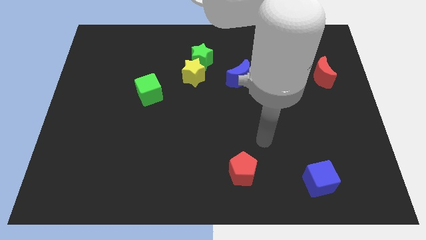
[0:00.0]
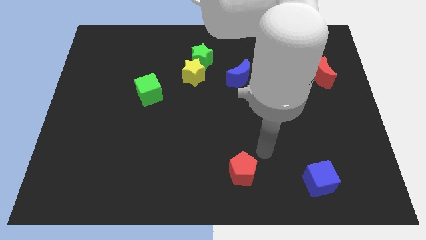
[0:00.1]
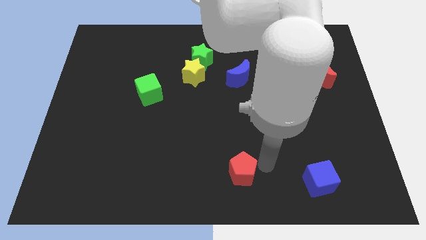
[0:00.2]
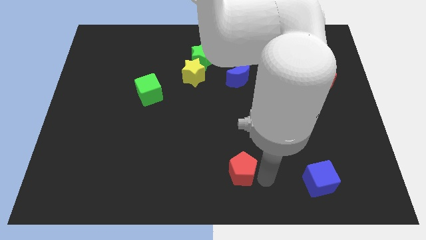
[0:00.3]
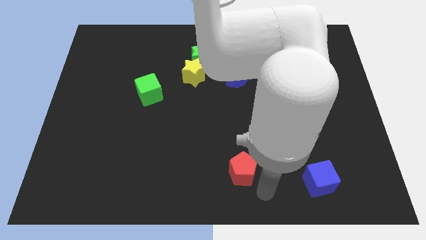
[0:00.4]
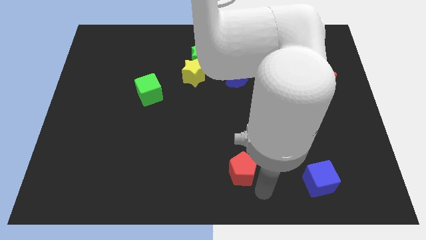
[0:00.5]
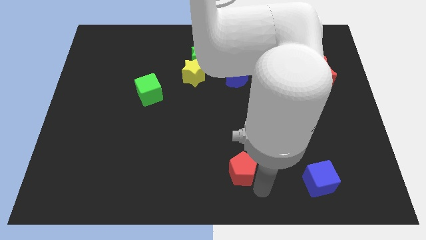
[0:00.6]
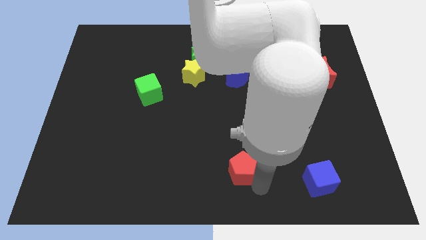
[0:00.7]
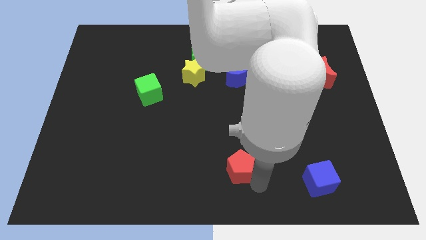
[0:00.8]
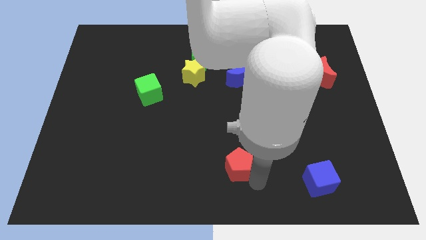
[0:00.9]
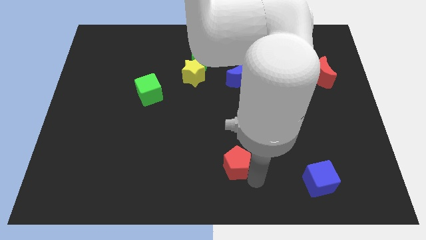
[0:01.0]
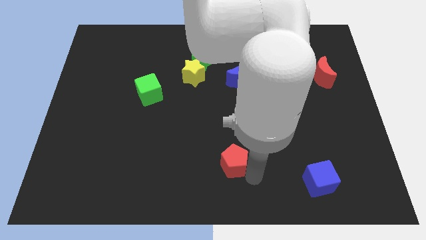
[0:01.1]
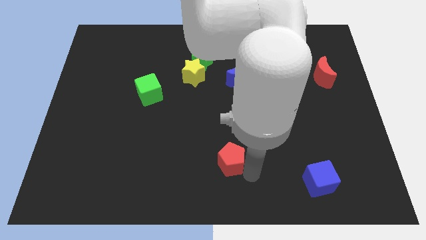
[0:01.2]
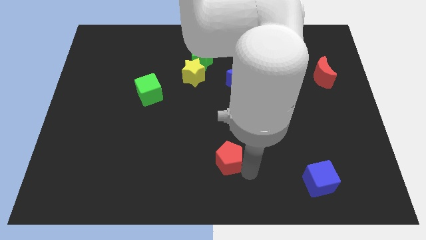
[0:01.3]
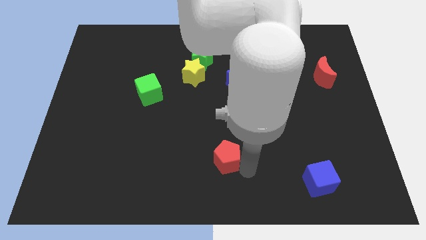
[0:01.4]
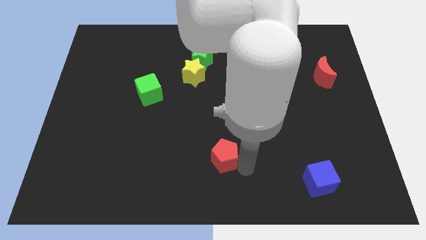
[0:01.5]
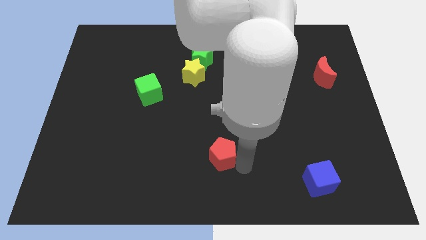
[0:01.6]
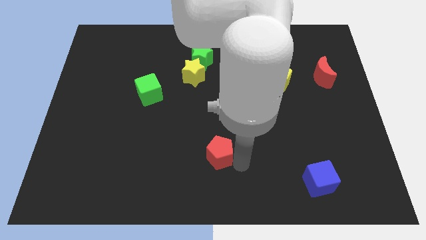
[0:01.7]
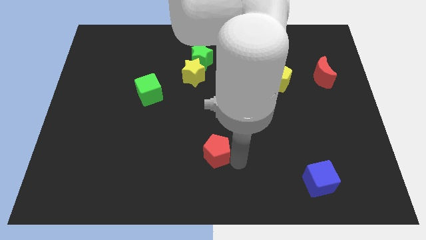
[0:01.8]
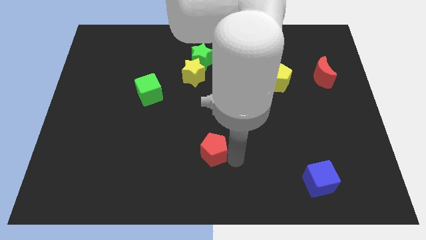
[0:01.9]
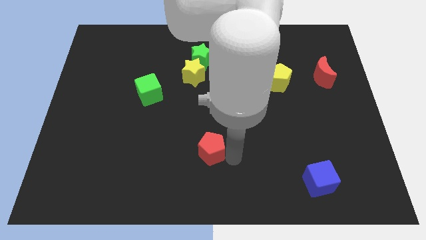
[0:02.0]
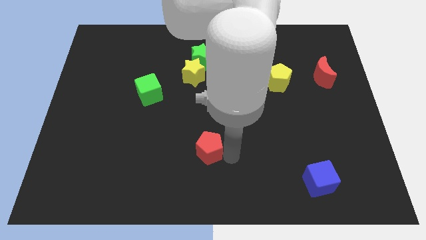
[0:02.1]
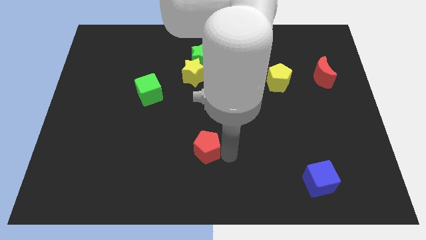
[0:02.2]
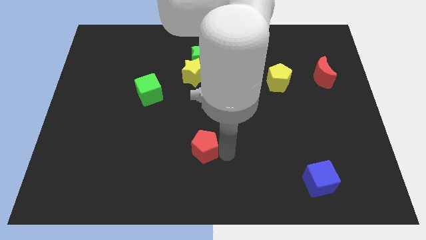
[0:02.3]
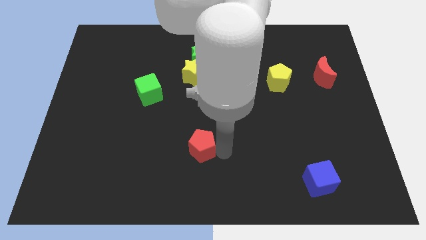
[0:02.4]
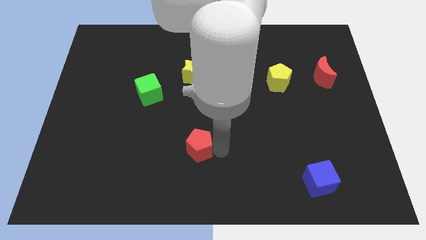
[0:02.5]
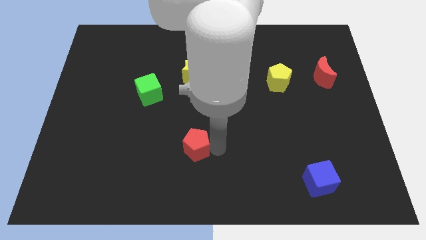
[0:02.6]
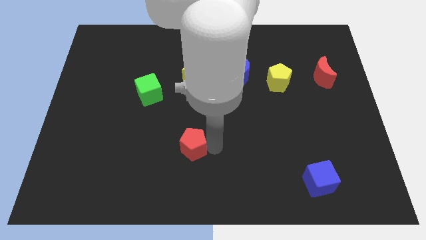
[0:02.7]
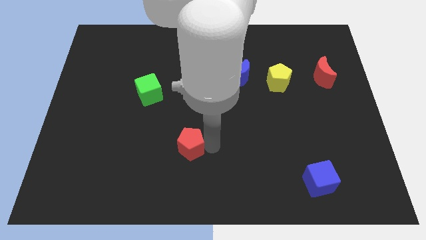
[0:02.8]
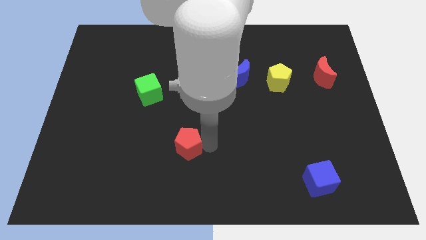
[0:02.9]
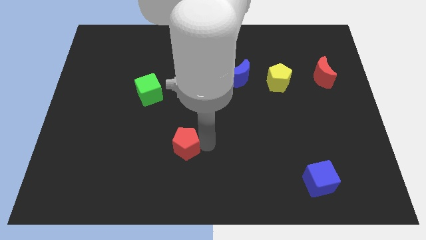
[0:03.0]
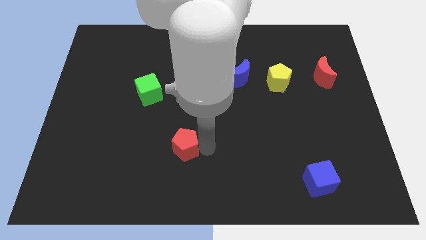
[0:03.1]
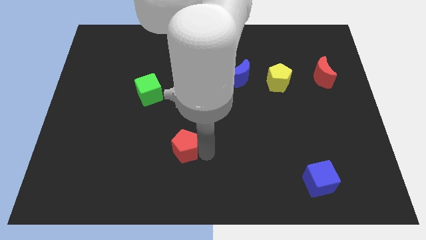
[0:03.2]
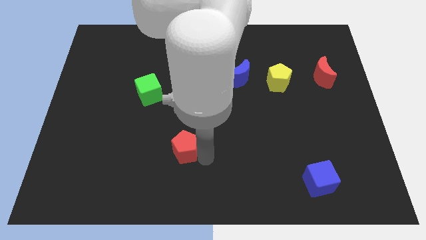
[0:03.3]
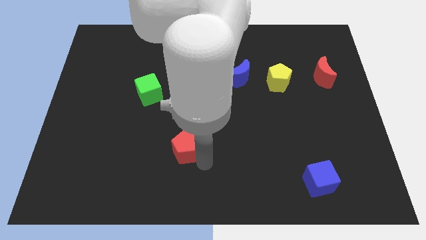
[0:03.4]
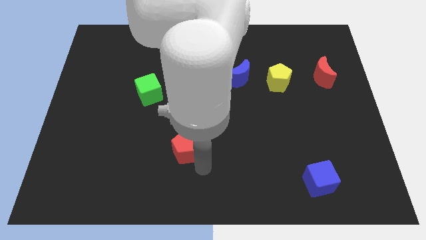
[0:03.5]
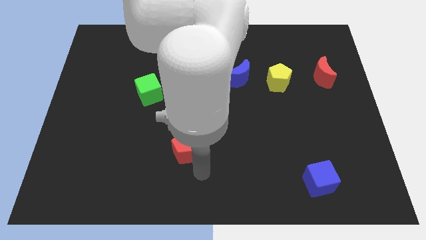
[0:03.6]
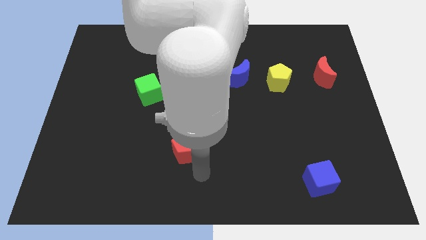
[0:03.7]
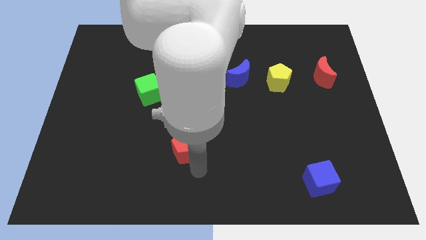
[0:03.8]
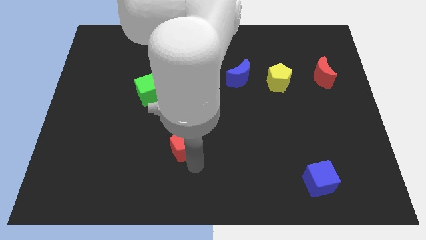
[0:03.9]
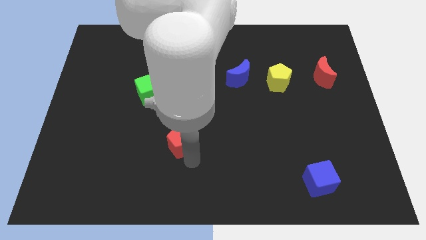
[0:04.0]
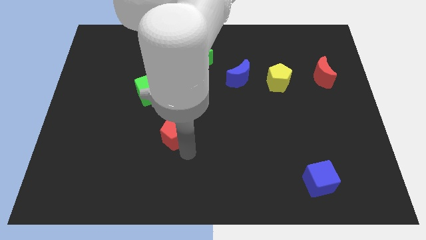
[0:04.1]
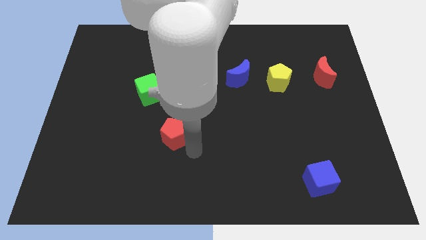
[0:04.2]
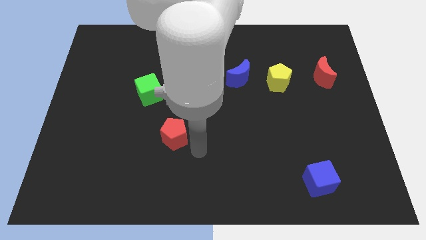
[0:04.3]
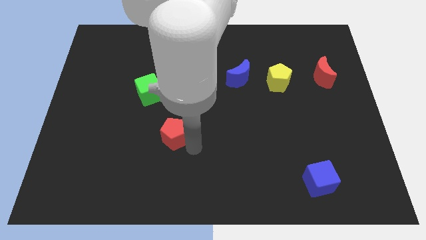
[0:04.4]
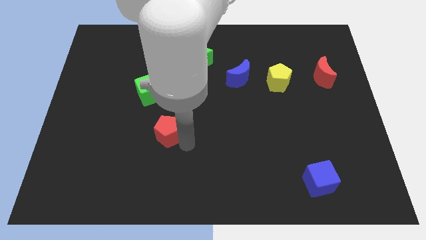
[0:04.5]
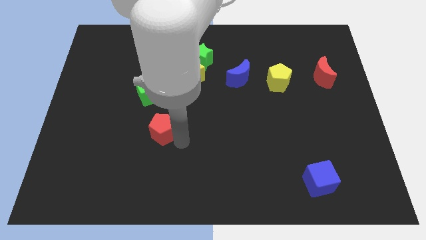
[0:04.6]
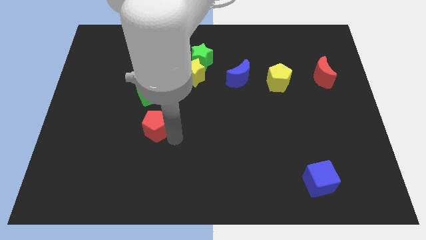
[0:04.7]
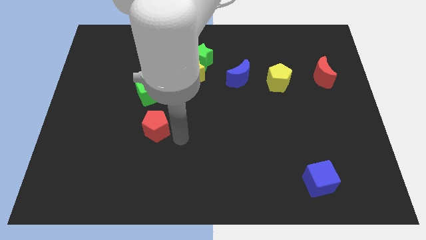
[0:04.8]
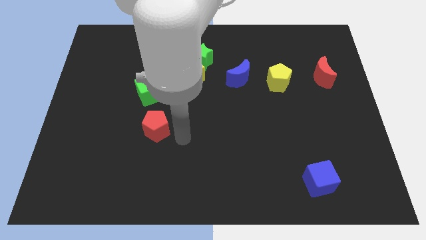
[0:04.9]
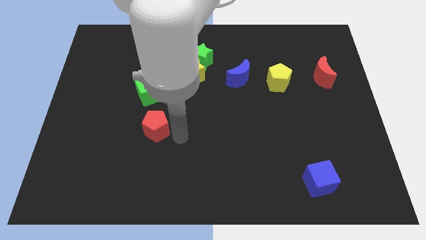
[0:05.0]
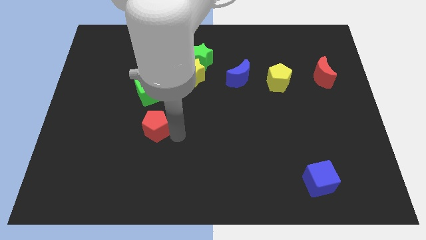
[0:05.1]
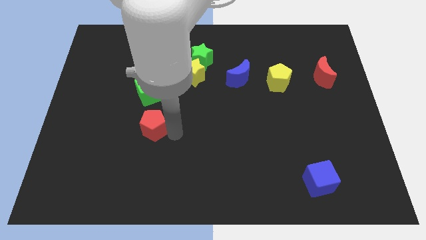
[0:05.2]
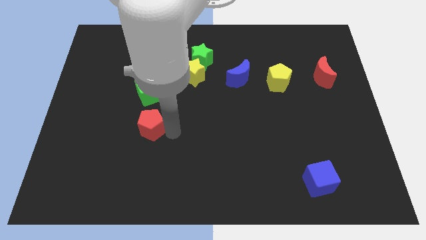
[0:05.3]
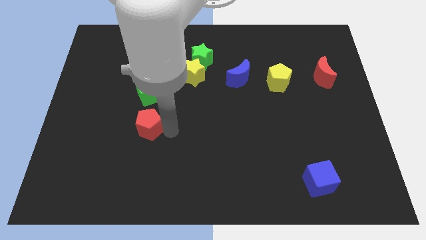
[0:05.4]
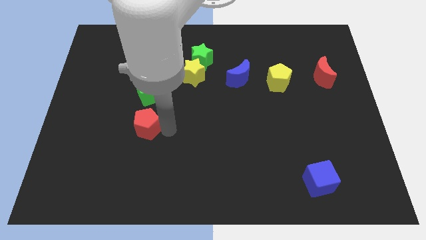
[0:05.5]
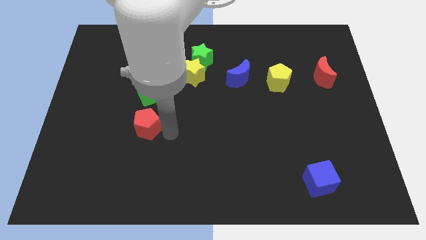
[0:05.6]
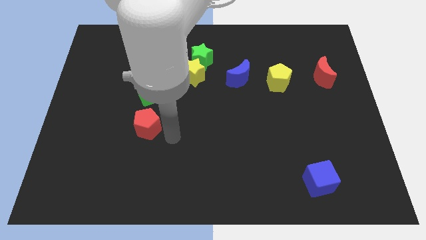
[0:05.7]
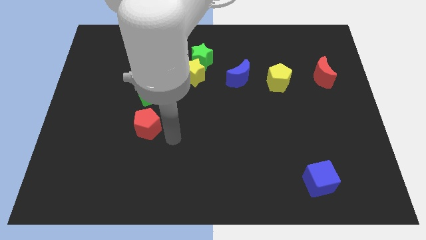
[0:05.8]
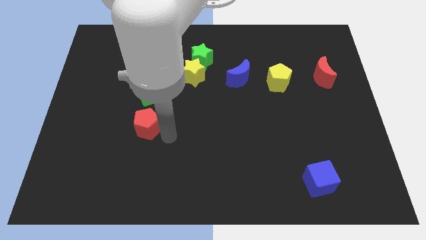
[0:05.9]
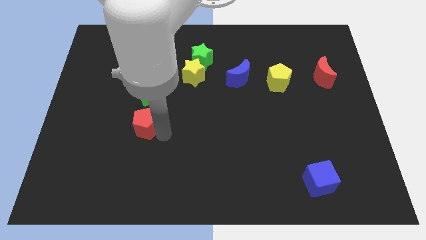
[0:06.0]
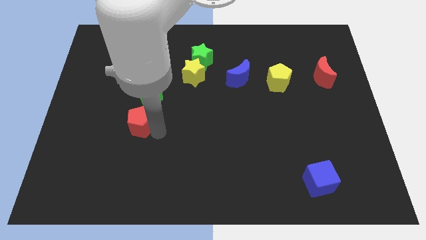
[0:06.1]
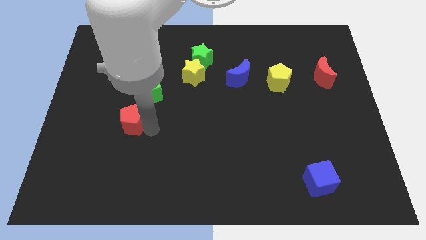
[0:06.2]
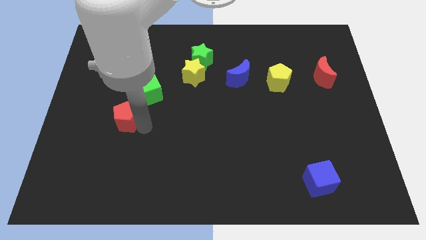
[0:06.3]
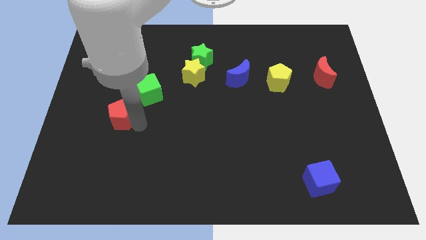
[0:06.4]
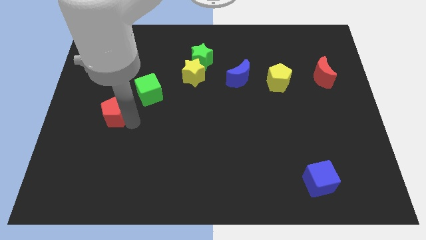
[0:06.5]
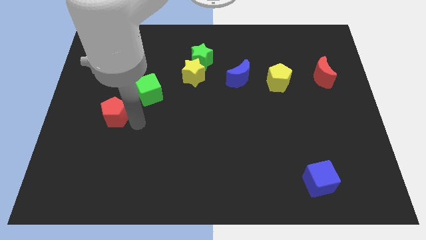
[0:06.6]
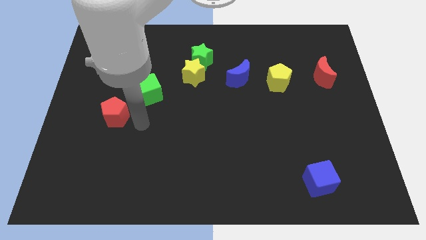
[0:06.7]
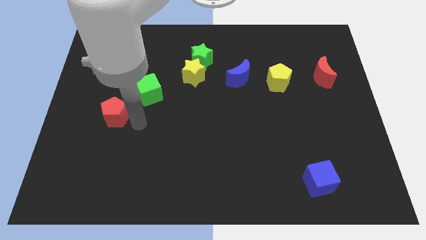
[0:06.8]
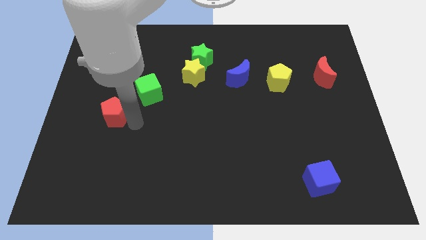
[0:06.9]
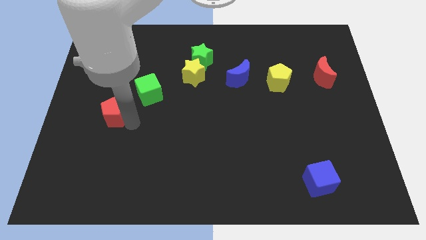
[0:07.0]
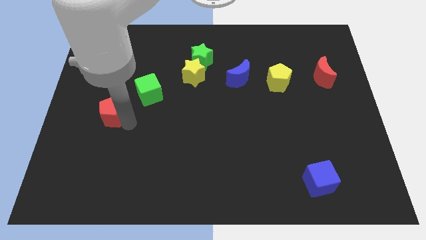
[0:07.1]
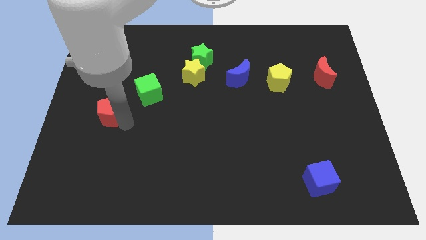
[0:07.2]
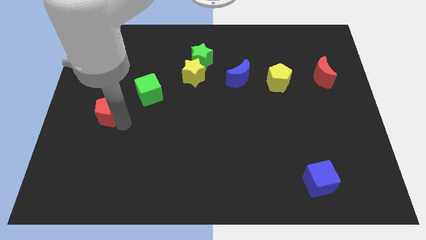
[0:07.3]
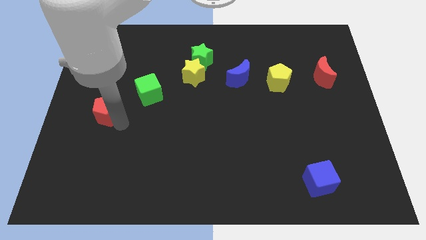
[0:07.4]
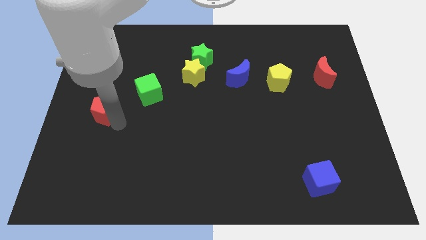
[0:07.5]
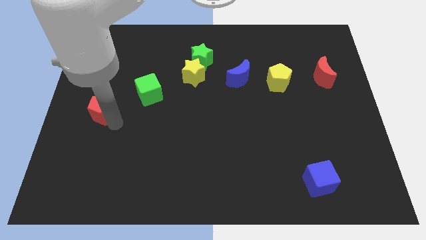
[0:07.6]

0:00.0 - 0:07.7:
slide the red pentagon to the left side of the board
